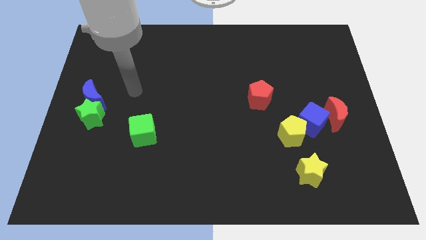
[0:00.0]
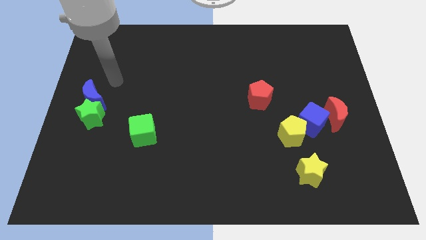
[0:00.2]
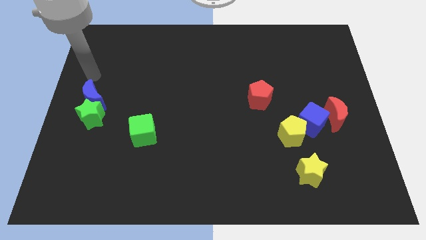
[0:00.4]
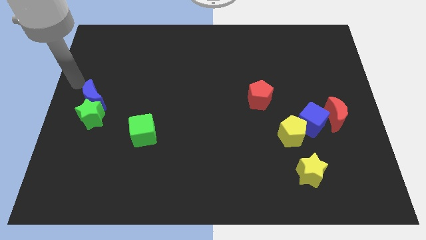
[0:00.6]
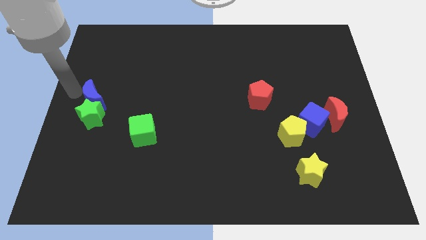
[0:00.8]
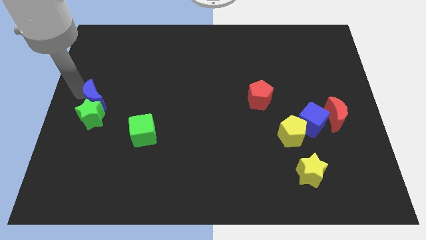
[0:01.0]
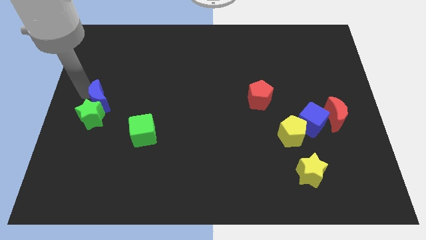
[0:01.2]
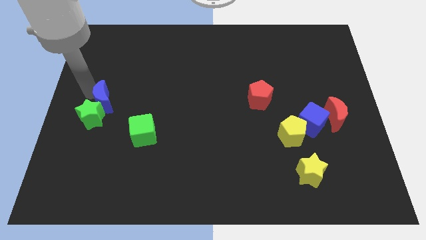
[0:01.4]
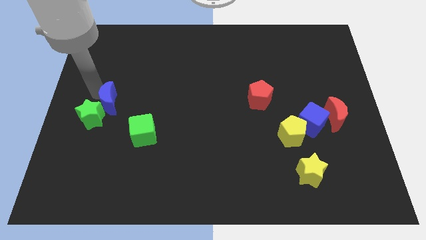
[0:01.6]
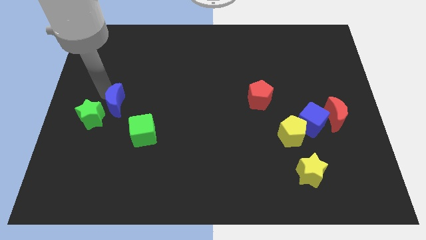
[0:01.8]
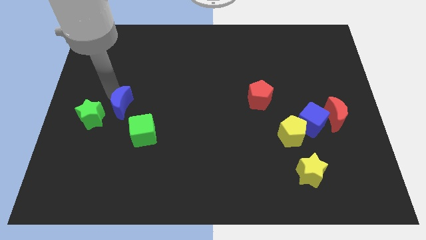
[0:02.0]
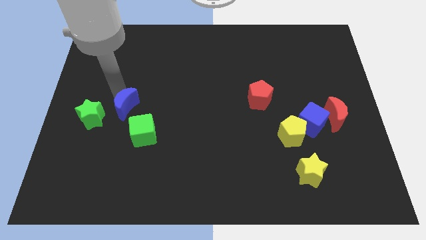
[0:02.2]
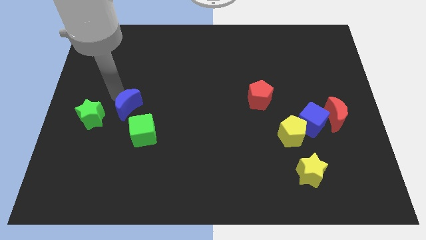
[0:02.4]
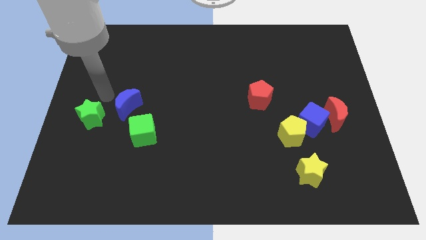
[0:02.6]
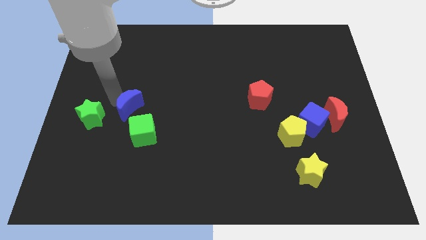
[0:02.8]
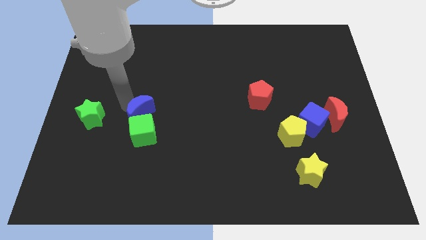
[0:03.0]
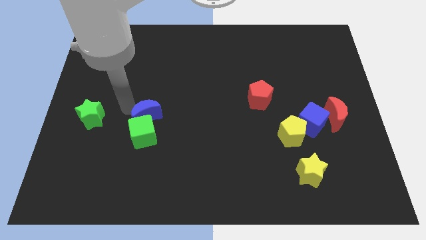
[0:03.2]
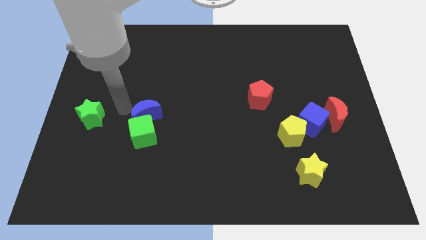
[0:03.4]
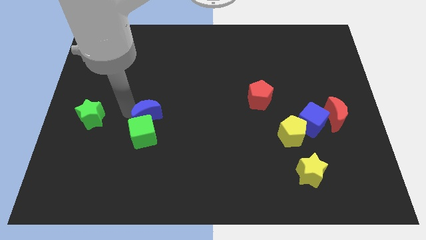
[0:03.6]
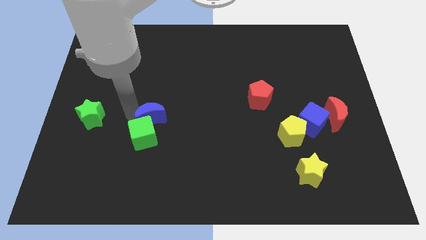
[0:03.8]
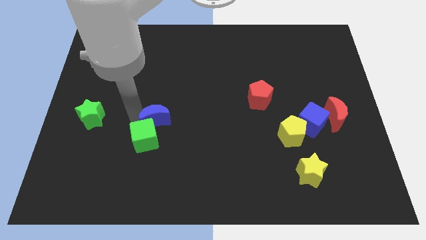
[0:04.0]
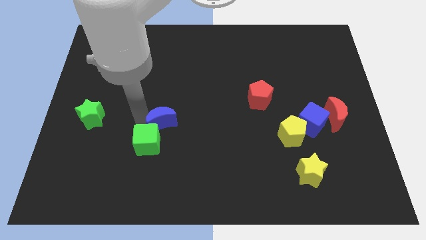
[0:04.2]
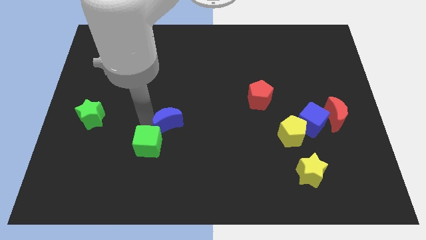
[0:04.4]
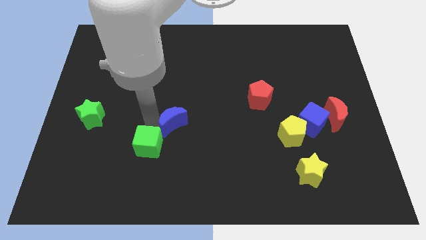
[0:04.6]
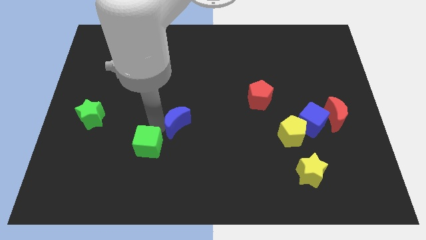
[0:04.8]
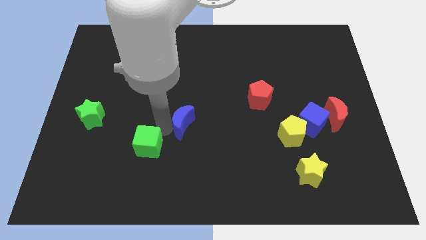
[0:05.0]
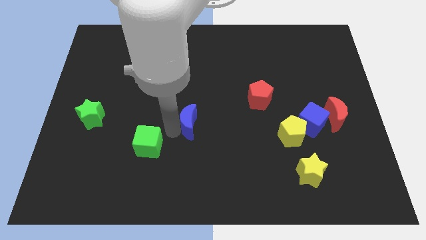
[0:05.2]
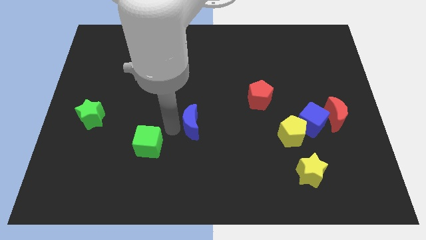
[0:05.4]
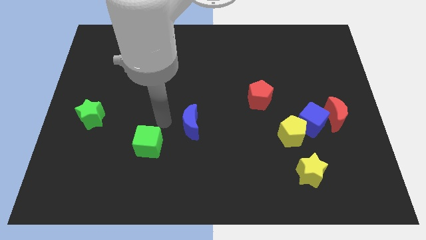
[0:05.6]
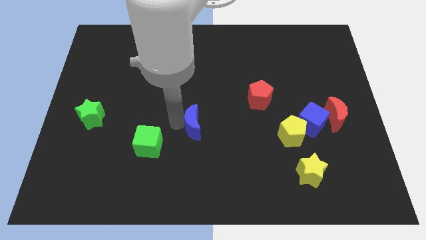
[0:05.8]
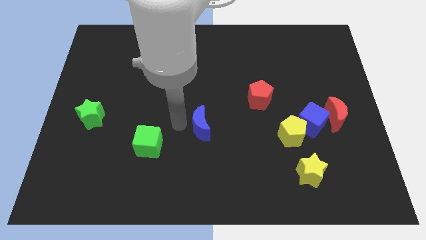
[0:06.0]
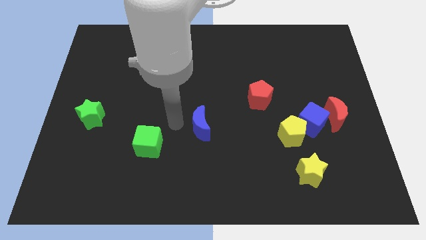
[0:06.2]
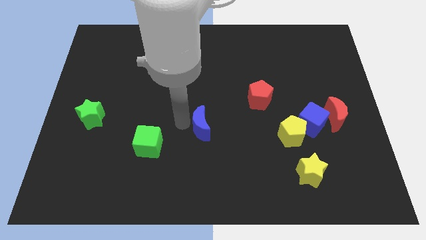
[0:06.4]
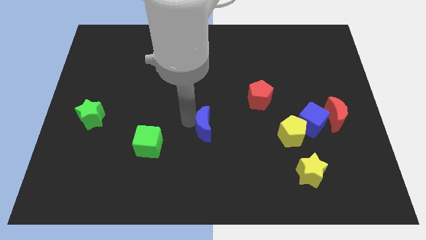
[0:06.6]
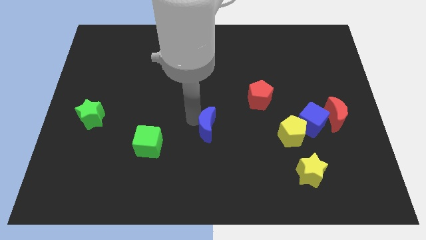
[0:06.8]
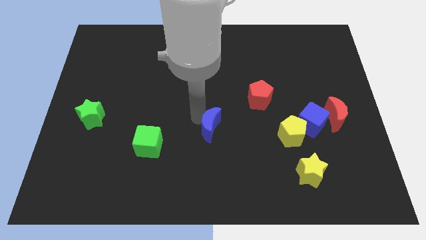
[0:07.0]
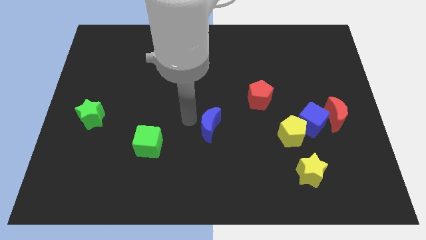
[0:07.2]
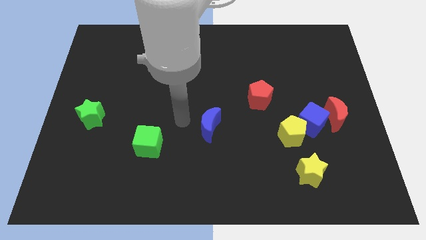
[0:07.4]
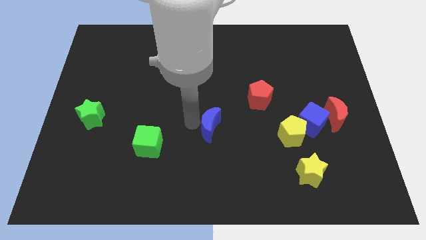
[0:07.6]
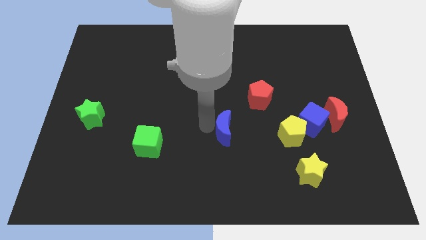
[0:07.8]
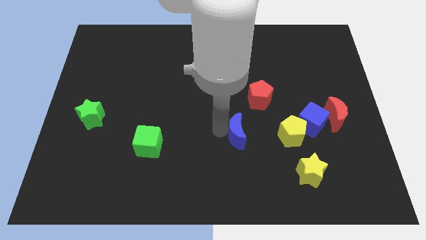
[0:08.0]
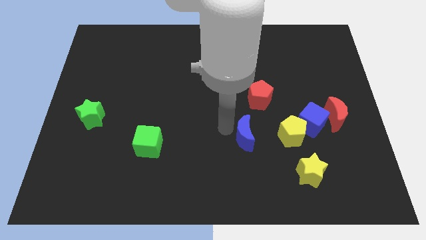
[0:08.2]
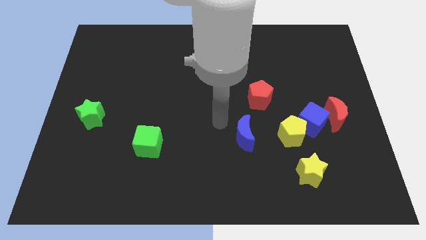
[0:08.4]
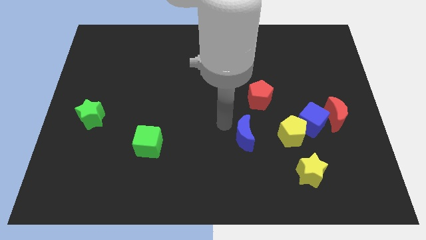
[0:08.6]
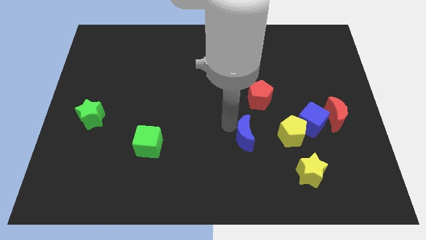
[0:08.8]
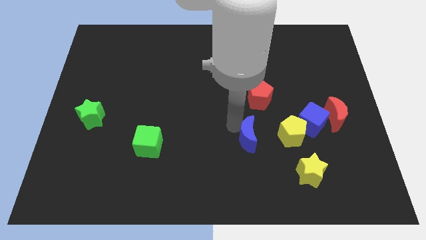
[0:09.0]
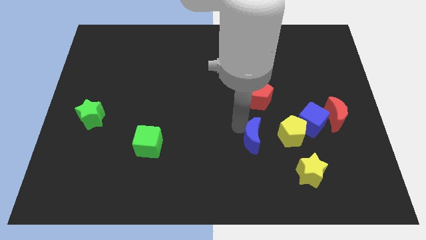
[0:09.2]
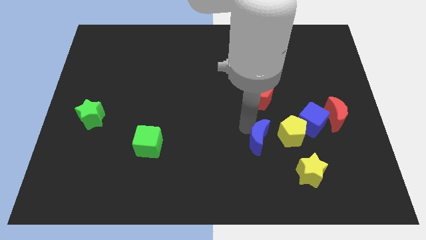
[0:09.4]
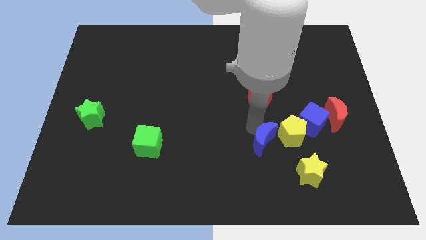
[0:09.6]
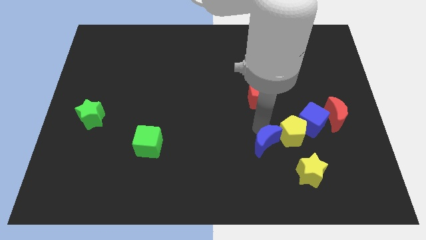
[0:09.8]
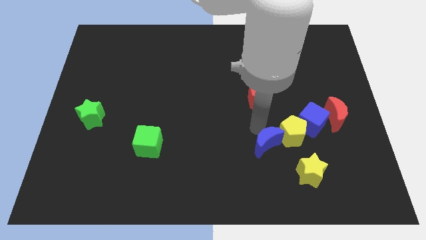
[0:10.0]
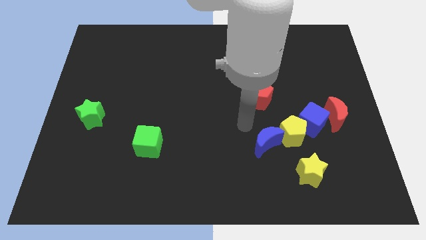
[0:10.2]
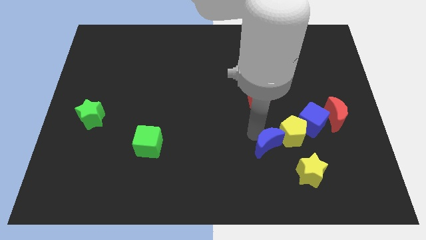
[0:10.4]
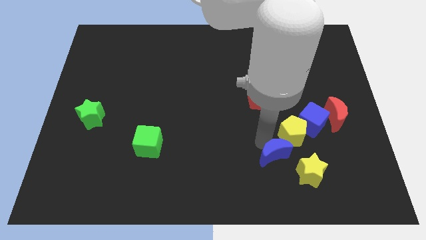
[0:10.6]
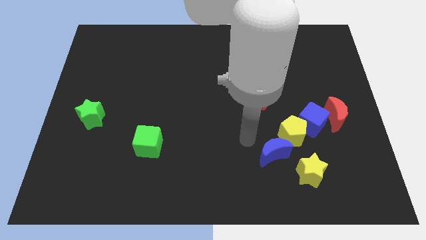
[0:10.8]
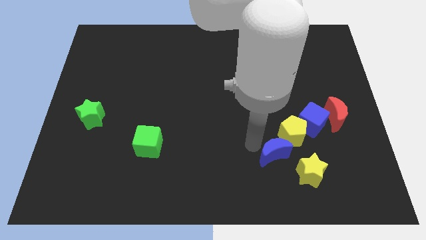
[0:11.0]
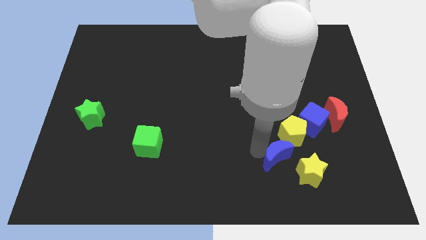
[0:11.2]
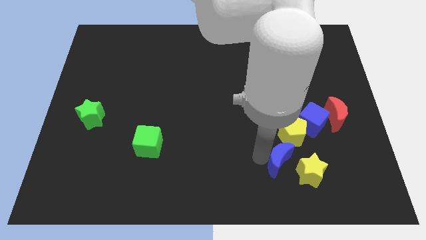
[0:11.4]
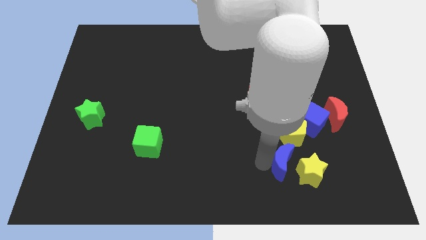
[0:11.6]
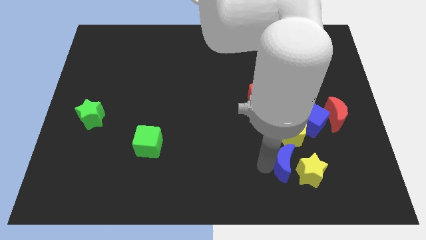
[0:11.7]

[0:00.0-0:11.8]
move the blue moon close to the yellow star
